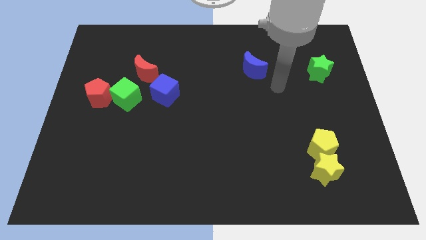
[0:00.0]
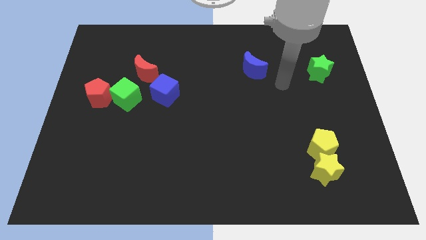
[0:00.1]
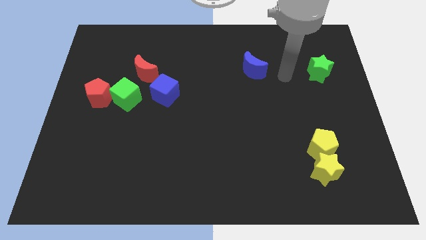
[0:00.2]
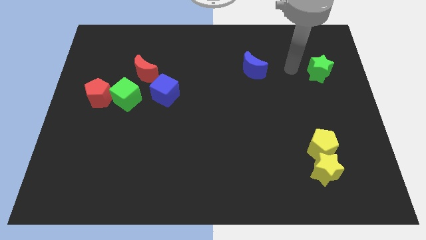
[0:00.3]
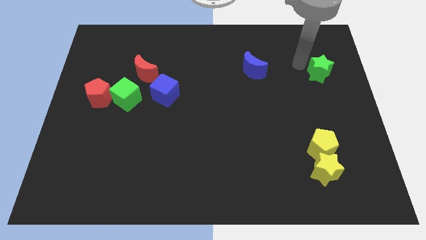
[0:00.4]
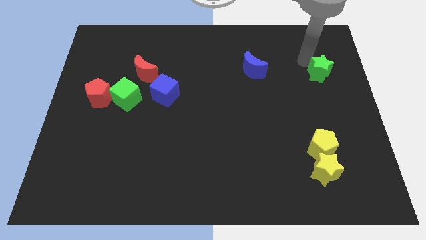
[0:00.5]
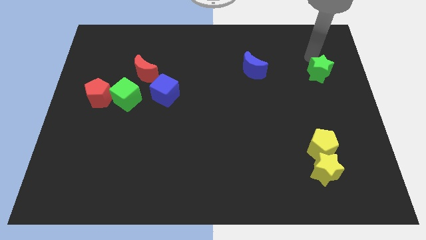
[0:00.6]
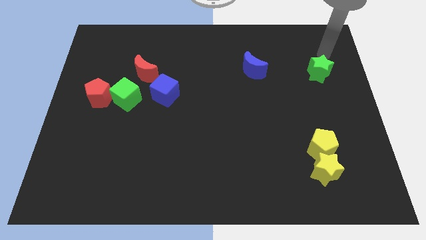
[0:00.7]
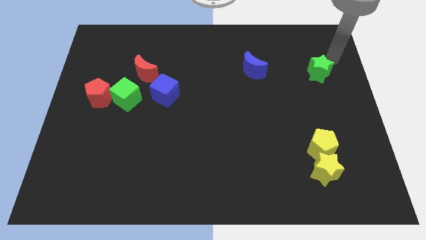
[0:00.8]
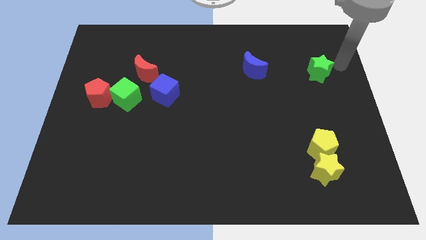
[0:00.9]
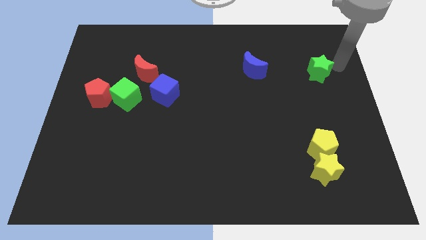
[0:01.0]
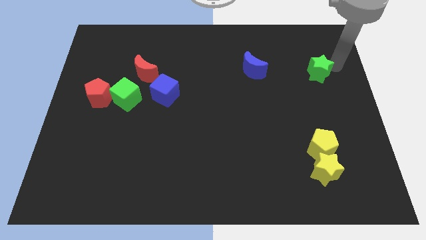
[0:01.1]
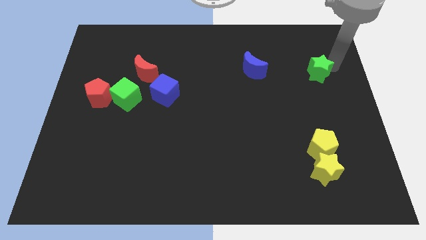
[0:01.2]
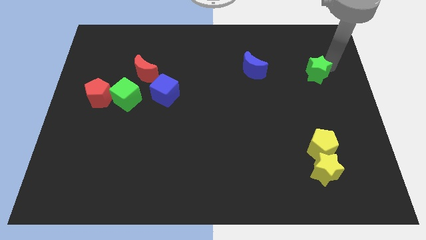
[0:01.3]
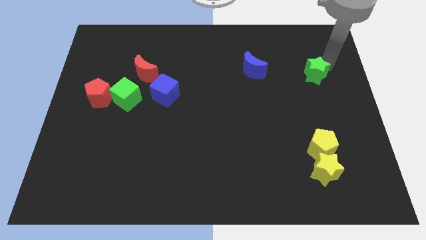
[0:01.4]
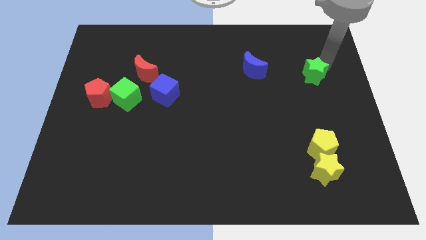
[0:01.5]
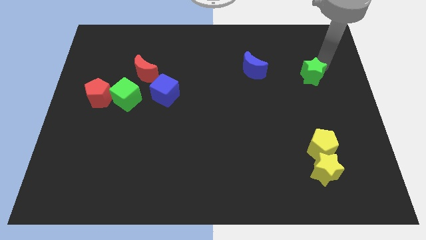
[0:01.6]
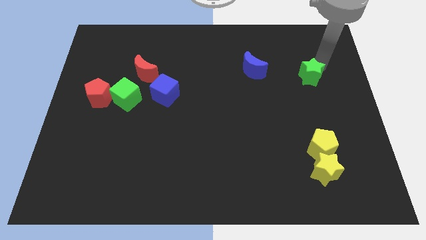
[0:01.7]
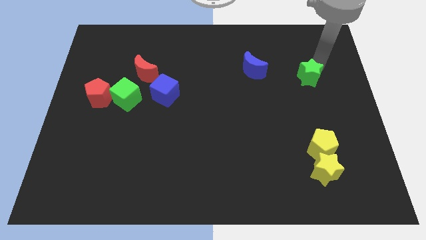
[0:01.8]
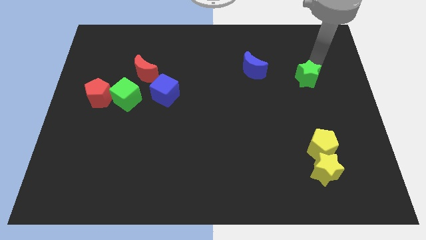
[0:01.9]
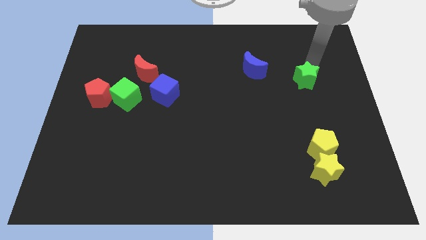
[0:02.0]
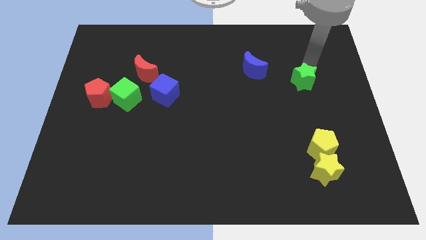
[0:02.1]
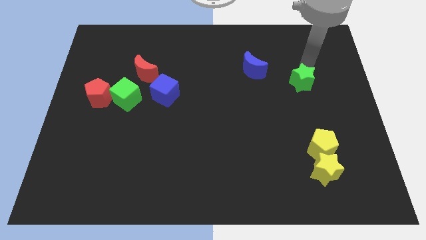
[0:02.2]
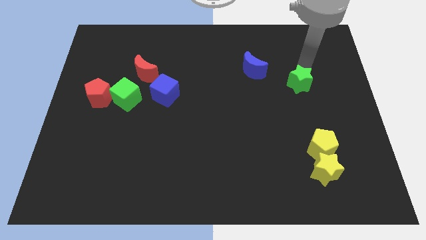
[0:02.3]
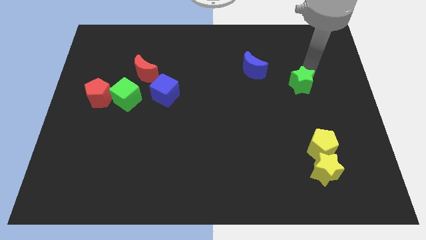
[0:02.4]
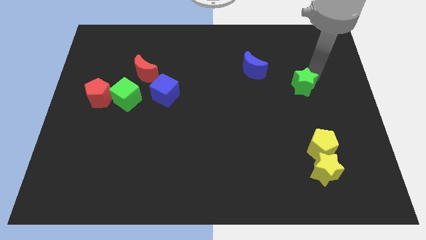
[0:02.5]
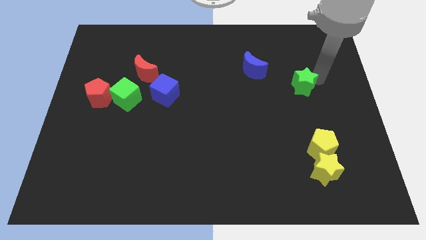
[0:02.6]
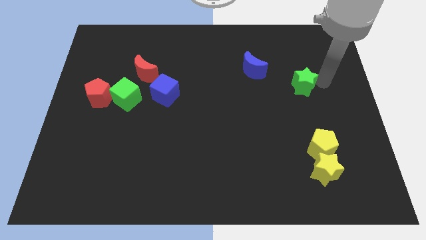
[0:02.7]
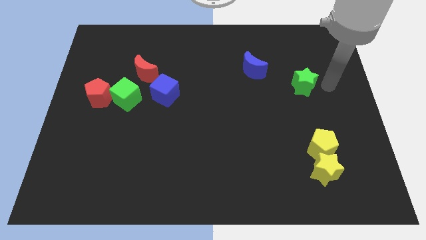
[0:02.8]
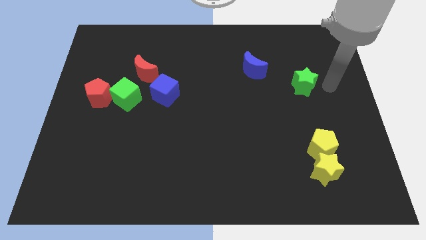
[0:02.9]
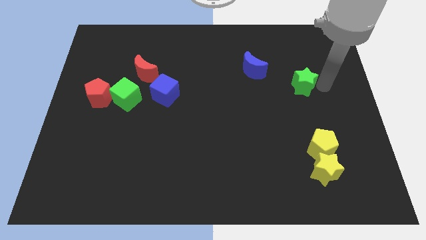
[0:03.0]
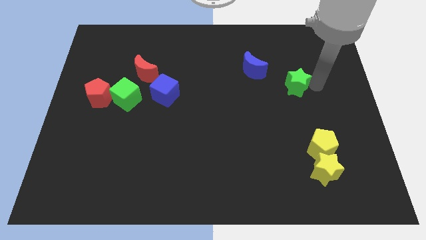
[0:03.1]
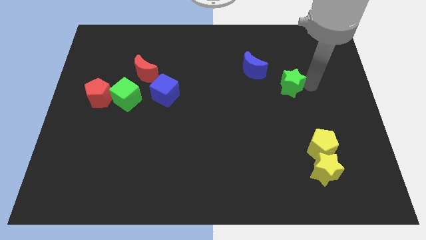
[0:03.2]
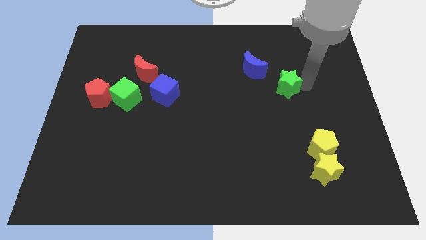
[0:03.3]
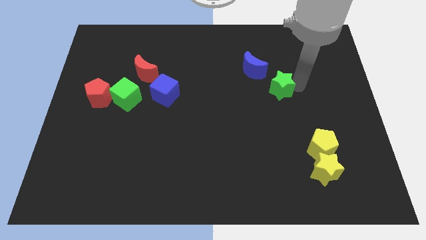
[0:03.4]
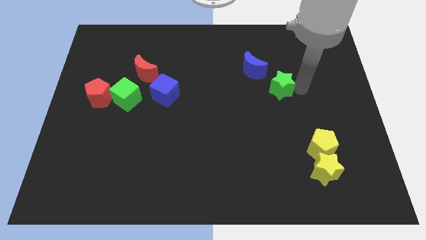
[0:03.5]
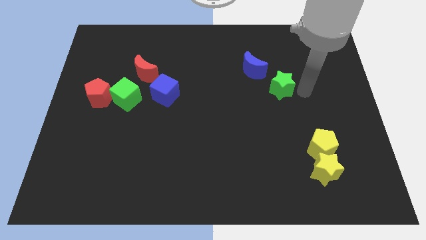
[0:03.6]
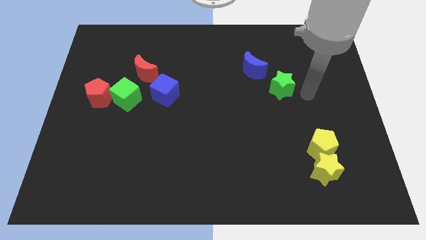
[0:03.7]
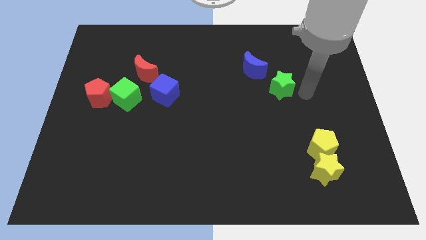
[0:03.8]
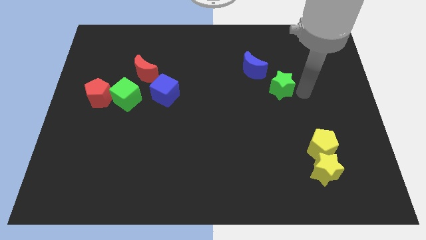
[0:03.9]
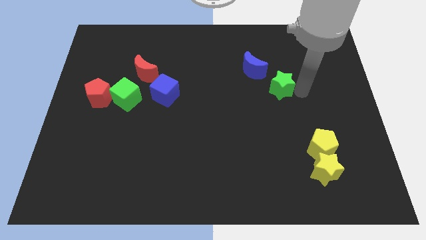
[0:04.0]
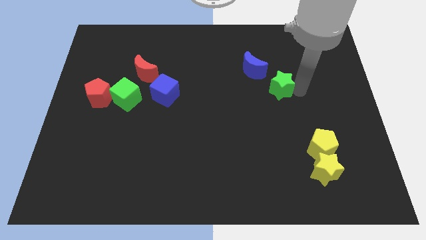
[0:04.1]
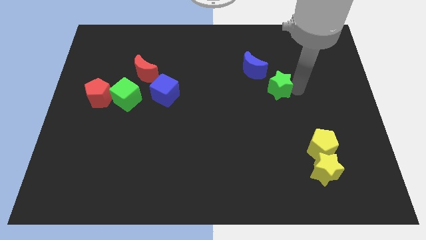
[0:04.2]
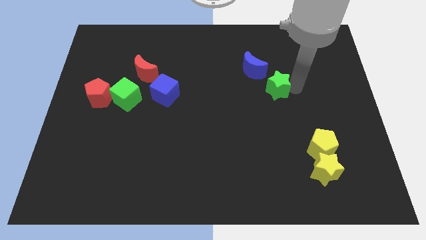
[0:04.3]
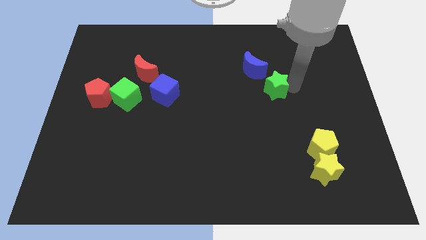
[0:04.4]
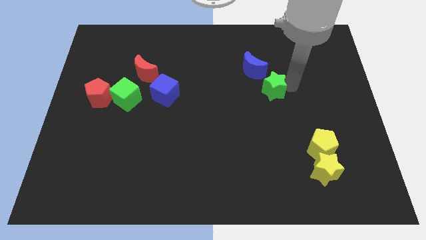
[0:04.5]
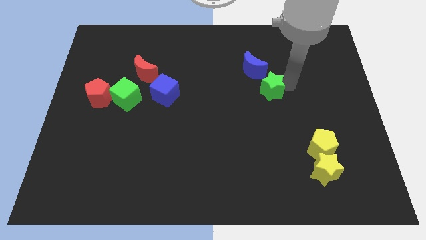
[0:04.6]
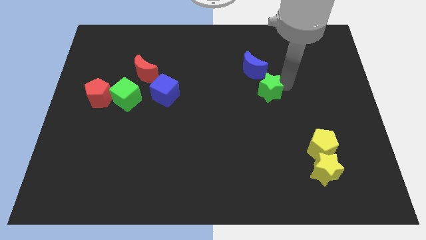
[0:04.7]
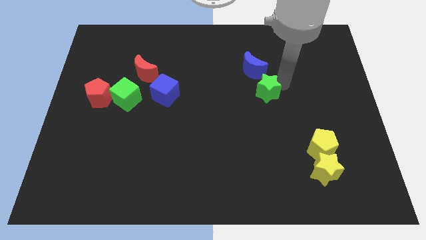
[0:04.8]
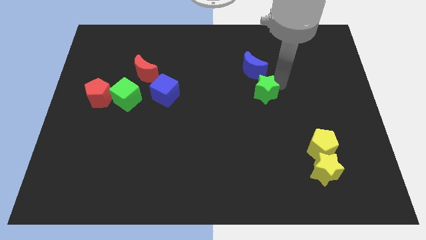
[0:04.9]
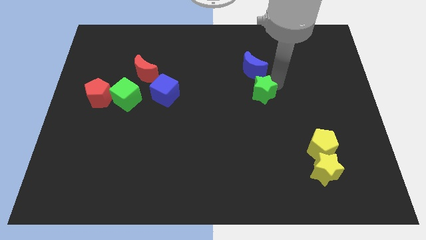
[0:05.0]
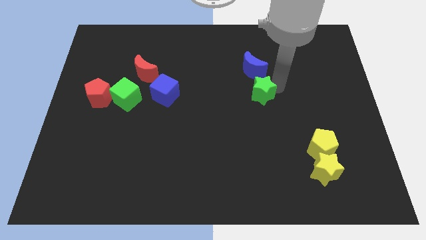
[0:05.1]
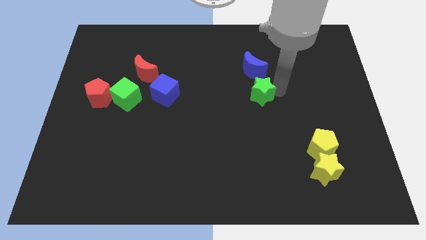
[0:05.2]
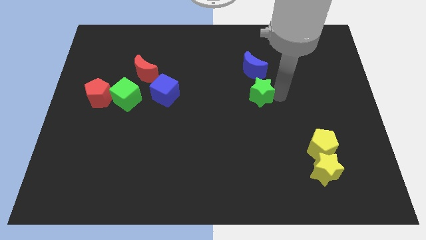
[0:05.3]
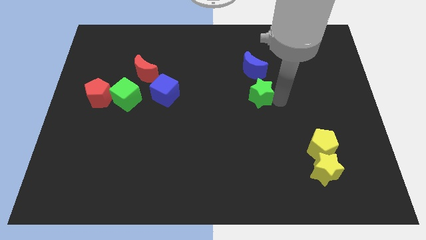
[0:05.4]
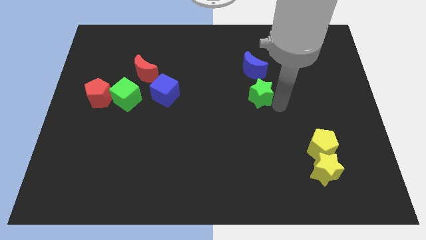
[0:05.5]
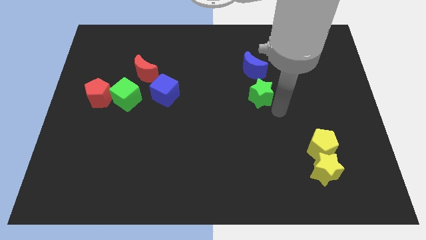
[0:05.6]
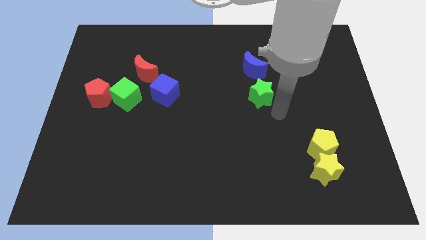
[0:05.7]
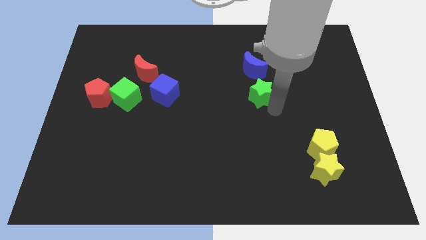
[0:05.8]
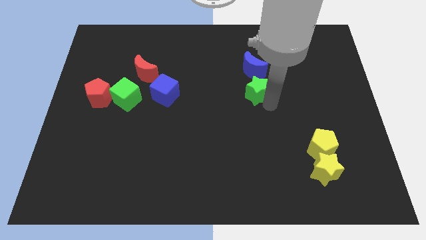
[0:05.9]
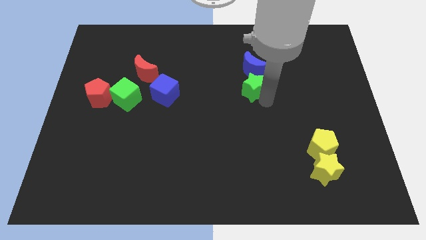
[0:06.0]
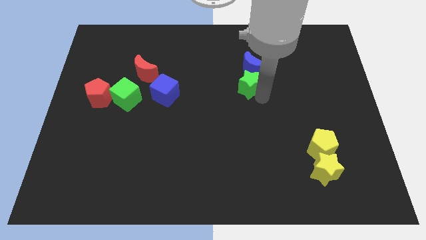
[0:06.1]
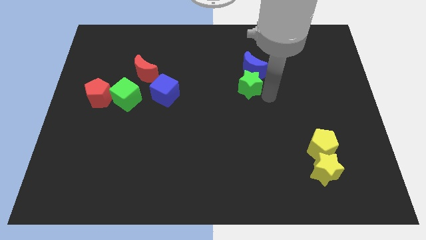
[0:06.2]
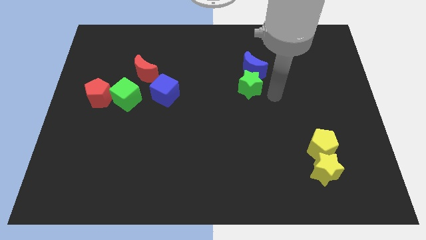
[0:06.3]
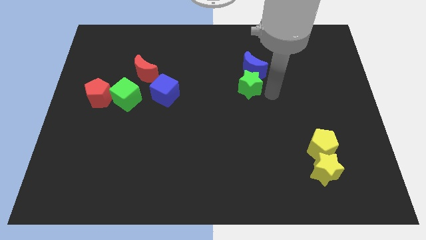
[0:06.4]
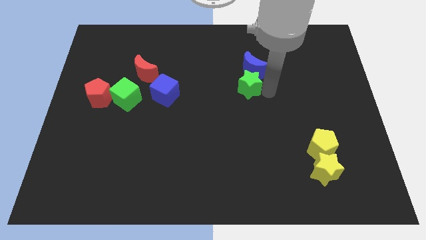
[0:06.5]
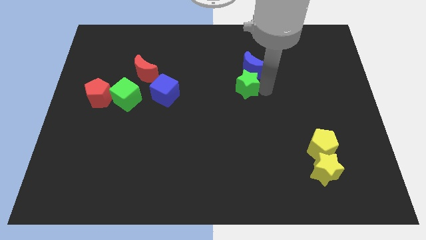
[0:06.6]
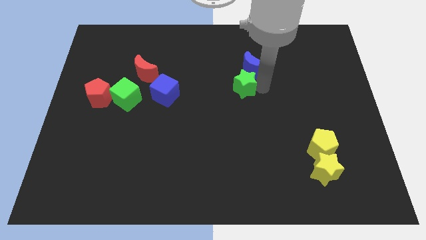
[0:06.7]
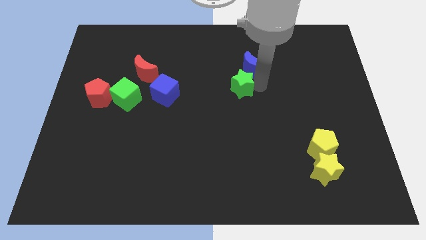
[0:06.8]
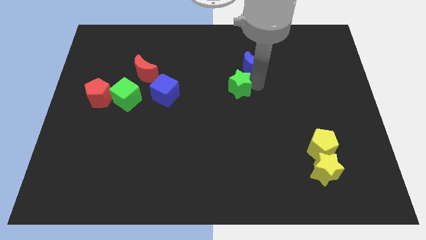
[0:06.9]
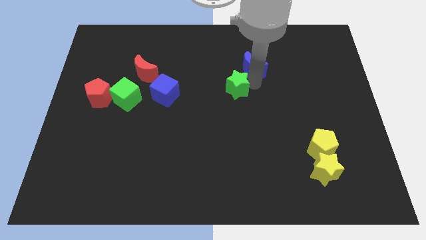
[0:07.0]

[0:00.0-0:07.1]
move the green star left

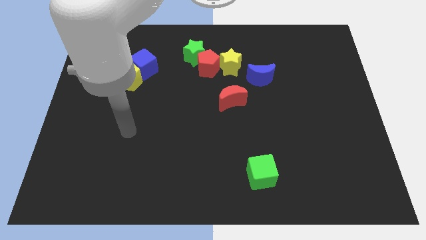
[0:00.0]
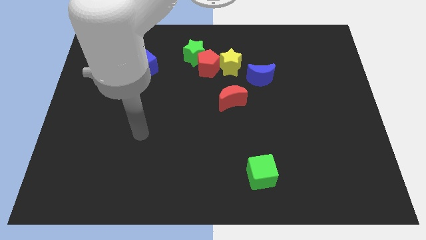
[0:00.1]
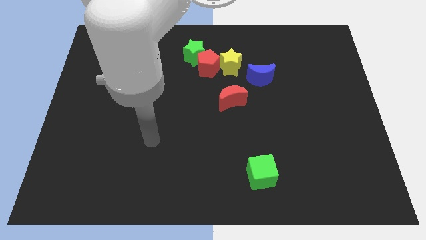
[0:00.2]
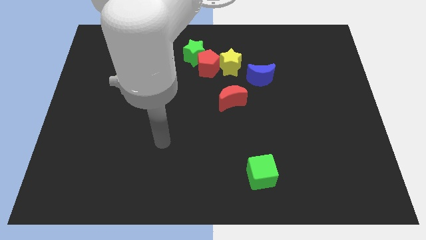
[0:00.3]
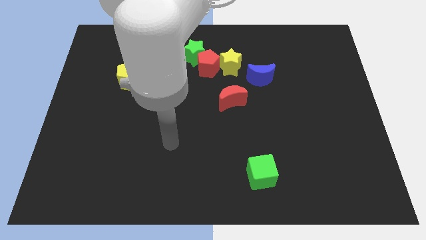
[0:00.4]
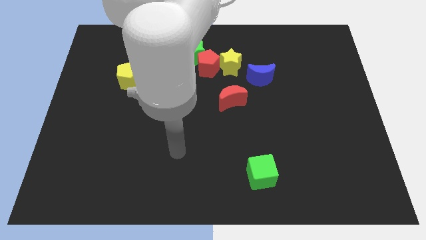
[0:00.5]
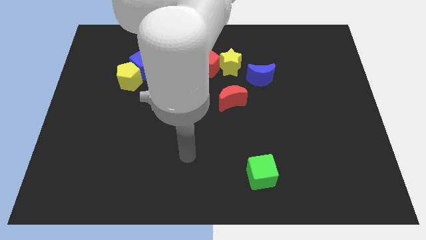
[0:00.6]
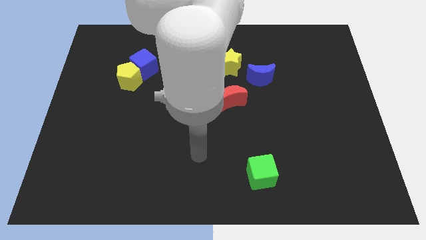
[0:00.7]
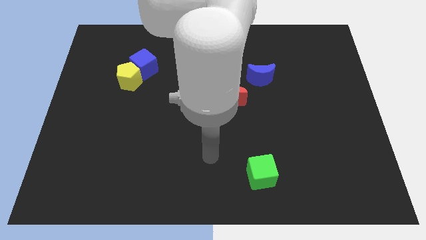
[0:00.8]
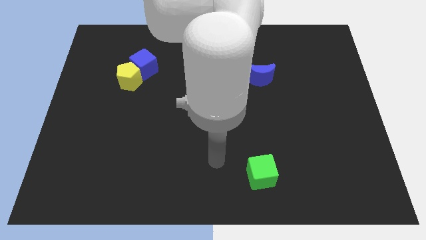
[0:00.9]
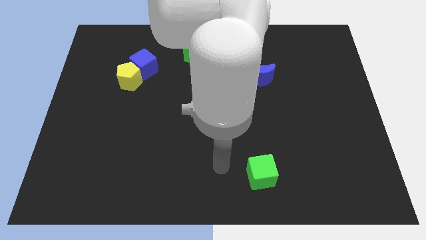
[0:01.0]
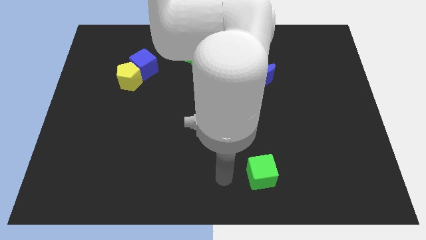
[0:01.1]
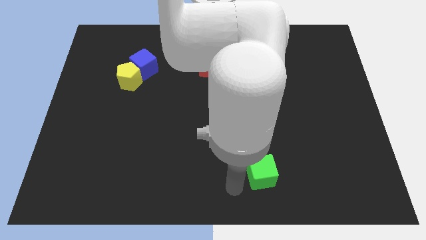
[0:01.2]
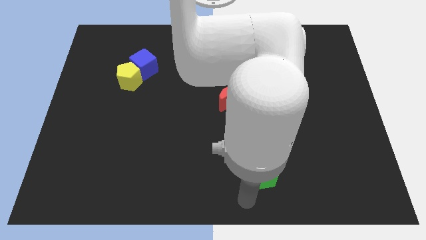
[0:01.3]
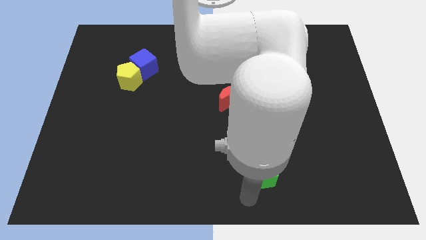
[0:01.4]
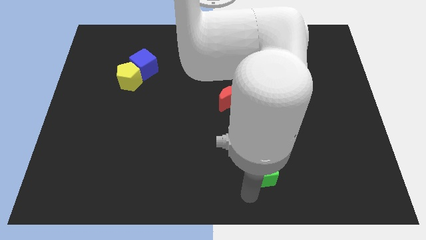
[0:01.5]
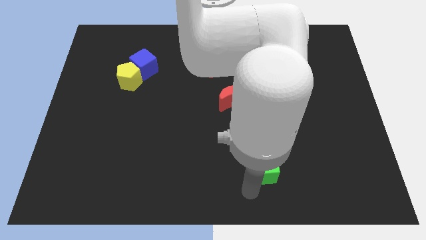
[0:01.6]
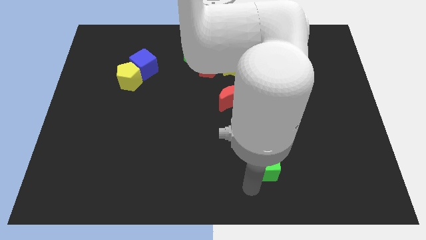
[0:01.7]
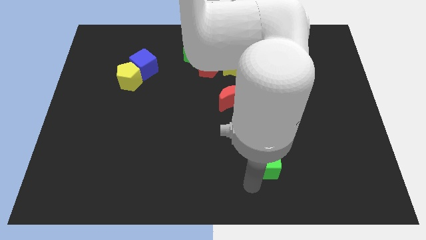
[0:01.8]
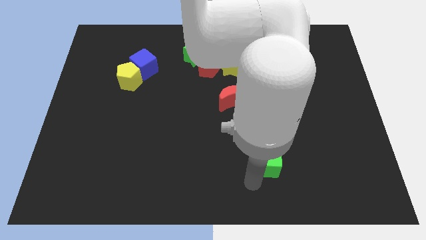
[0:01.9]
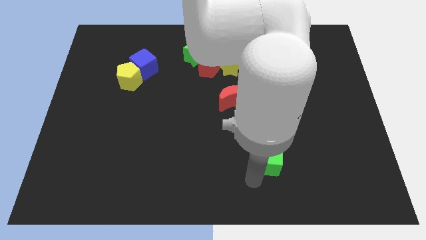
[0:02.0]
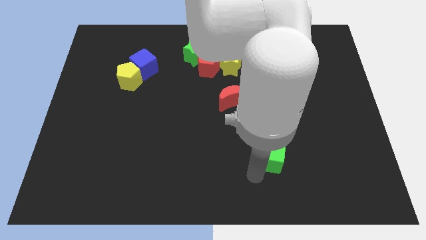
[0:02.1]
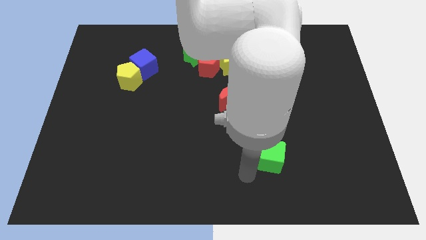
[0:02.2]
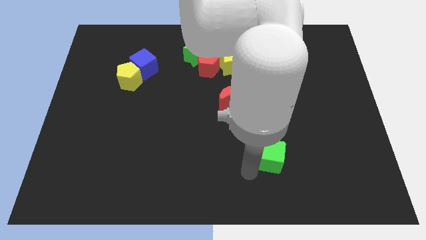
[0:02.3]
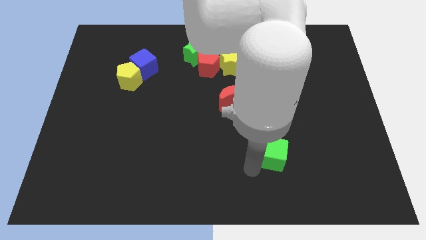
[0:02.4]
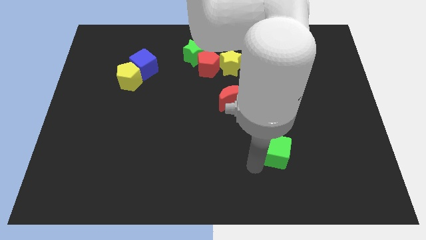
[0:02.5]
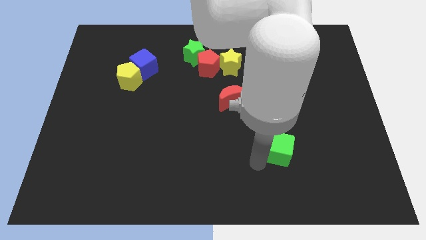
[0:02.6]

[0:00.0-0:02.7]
slightly move the green cube upwards and right
